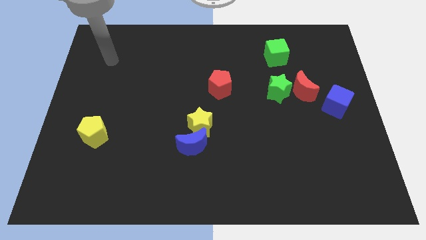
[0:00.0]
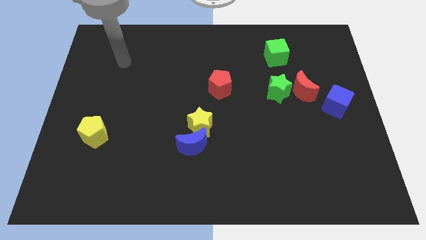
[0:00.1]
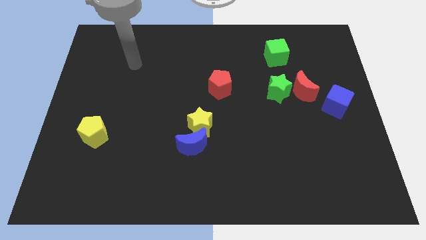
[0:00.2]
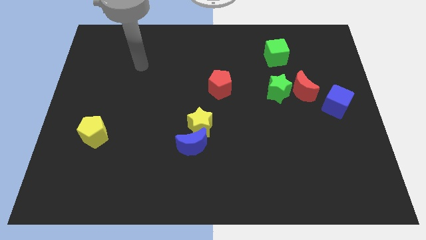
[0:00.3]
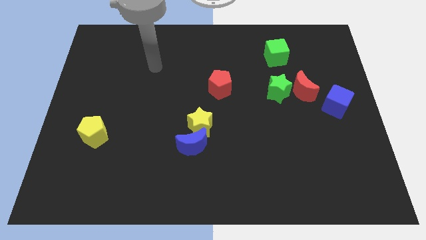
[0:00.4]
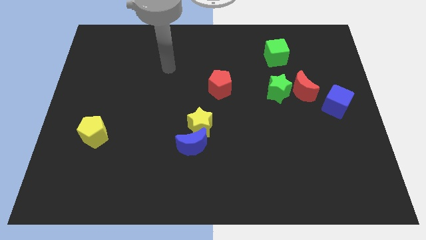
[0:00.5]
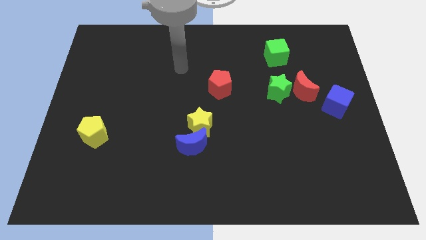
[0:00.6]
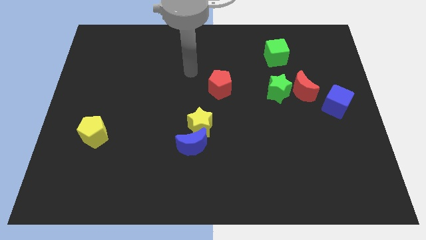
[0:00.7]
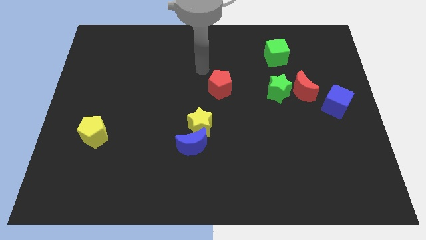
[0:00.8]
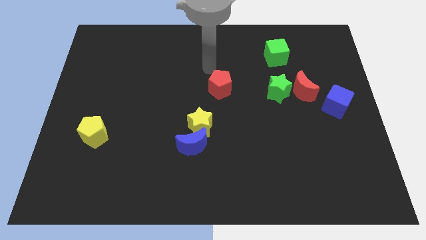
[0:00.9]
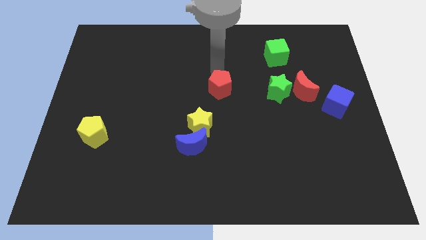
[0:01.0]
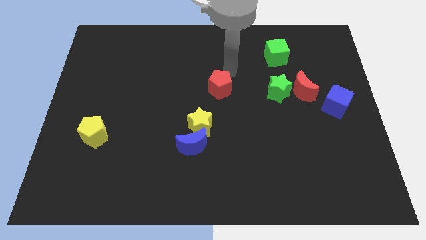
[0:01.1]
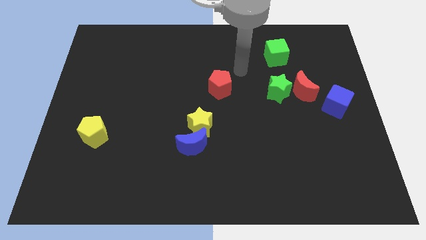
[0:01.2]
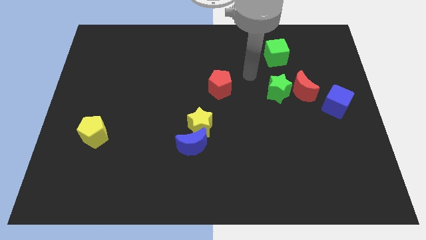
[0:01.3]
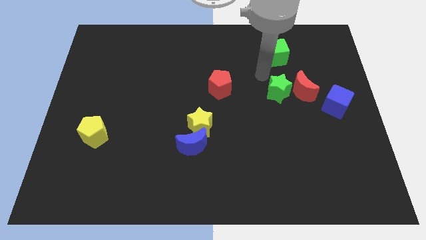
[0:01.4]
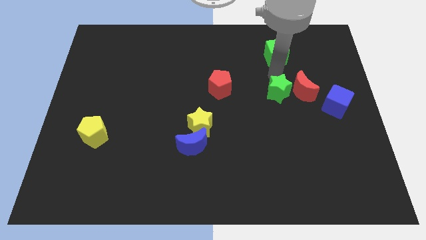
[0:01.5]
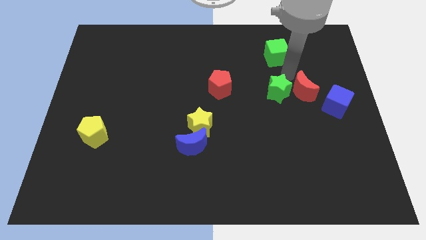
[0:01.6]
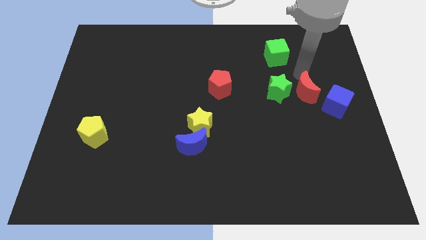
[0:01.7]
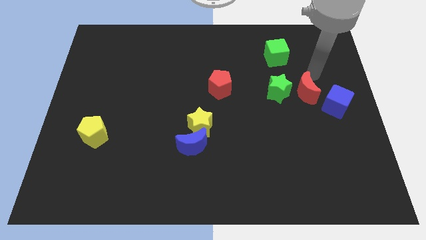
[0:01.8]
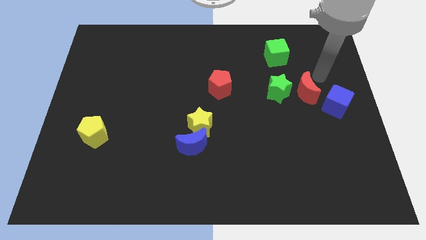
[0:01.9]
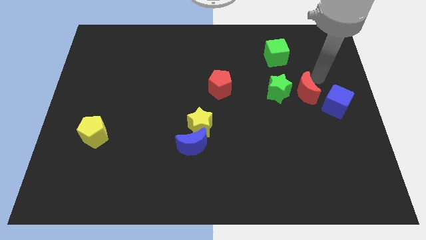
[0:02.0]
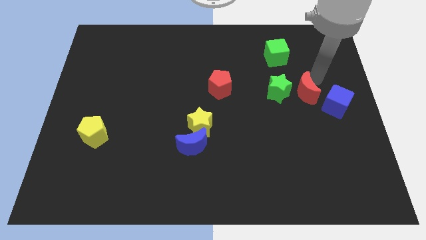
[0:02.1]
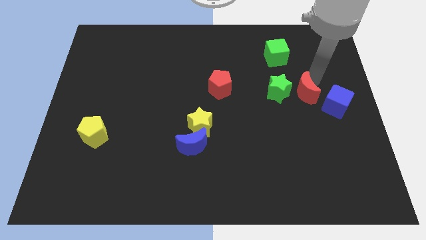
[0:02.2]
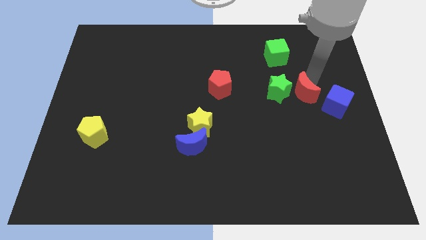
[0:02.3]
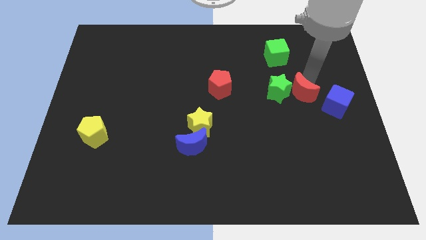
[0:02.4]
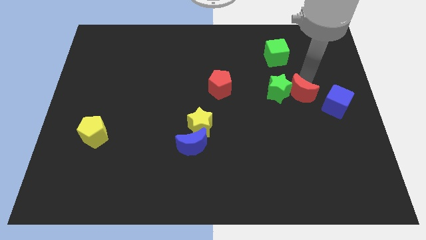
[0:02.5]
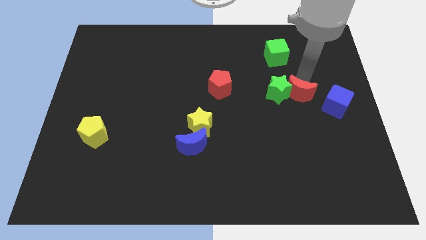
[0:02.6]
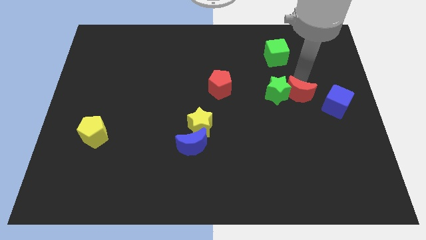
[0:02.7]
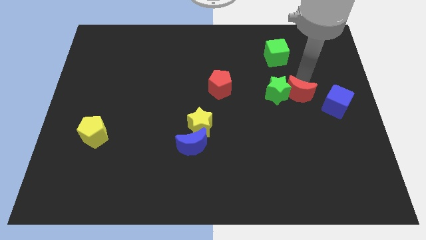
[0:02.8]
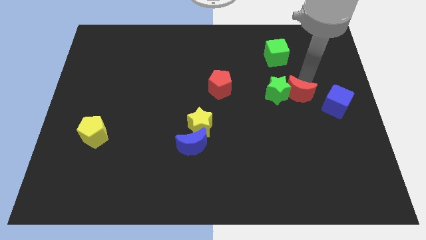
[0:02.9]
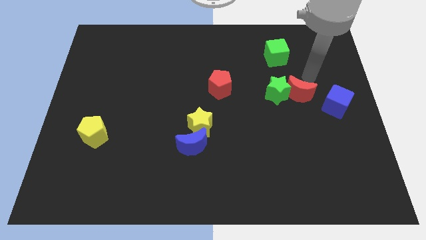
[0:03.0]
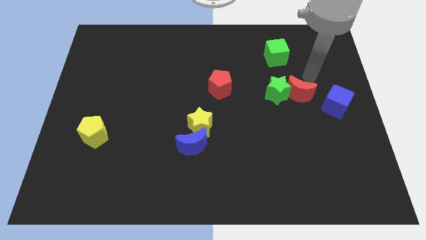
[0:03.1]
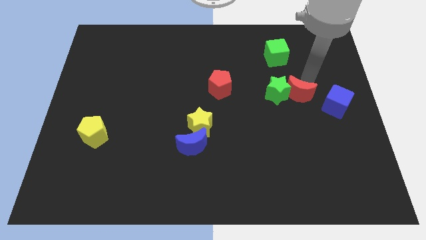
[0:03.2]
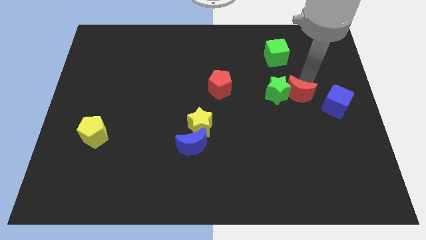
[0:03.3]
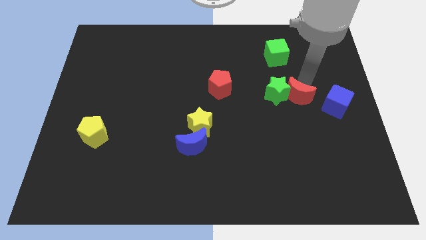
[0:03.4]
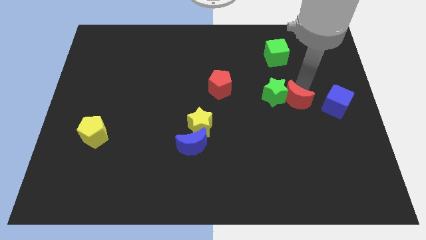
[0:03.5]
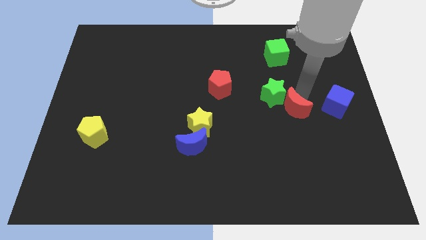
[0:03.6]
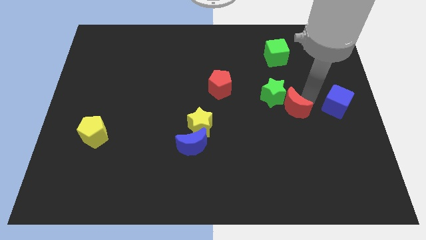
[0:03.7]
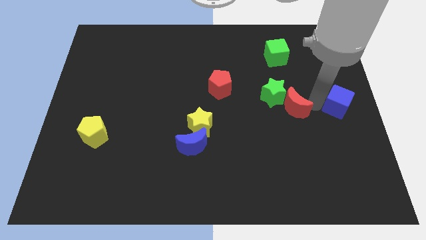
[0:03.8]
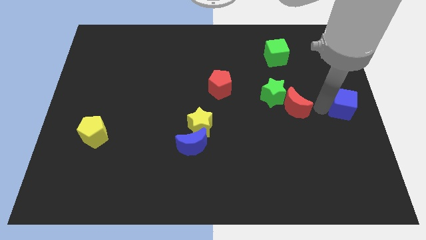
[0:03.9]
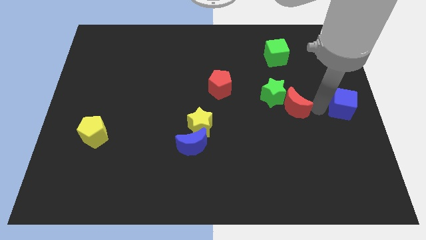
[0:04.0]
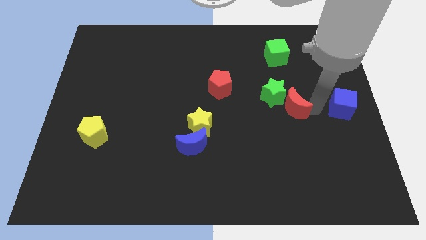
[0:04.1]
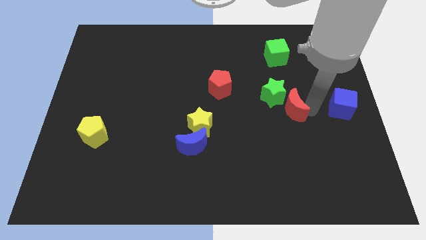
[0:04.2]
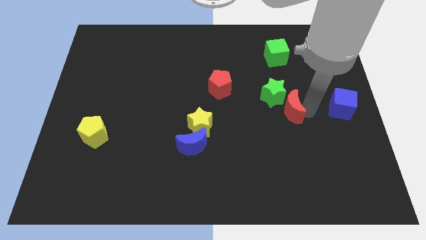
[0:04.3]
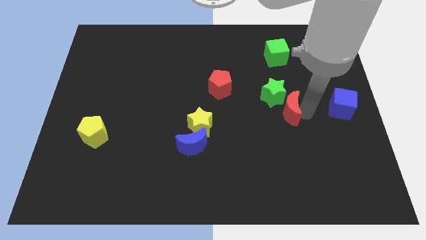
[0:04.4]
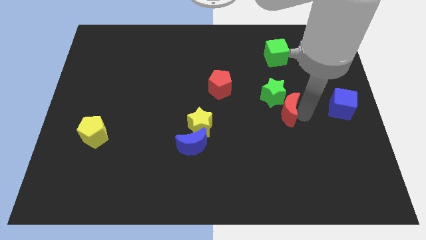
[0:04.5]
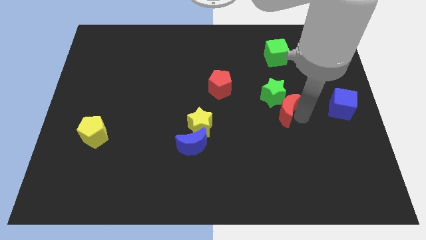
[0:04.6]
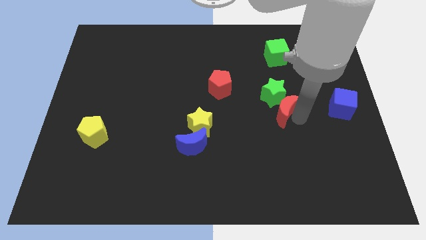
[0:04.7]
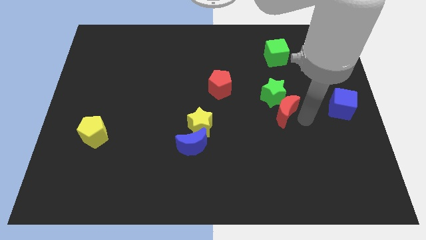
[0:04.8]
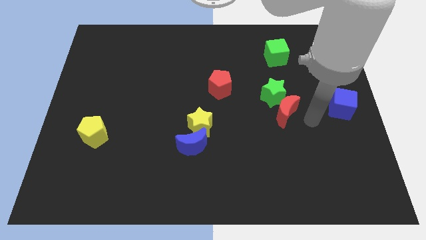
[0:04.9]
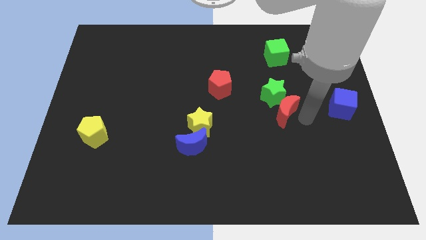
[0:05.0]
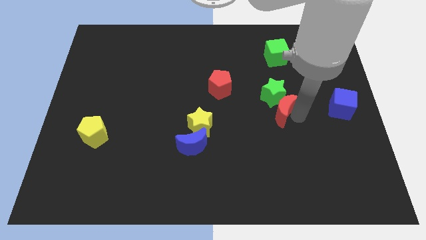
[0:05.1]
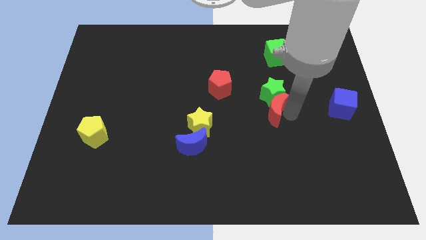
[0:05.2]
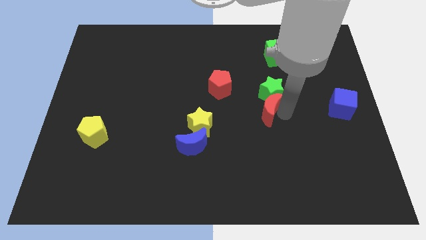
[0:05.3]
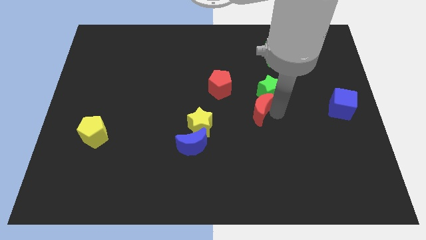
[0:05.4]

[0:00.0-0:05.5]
slide the red moon diagonally down and to the right of the red pentagon

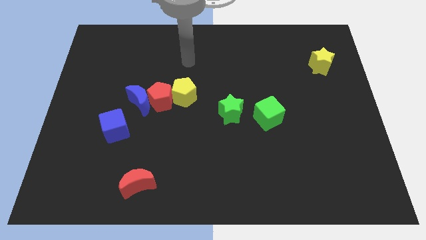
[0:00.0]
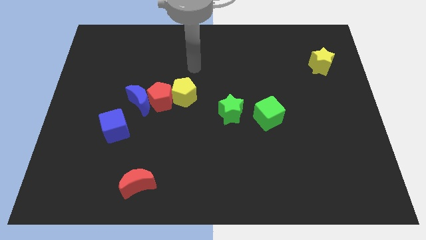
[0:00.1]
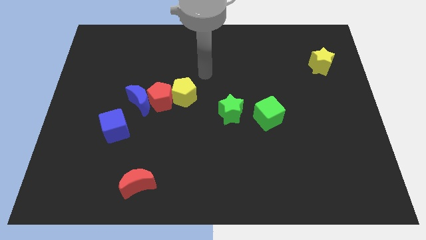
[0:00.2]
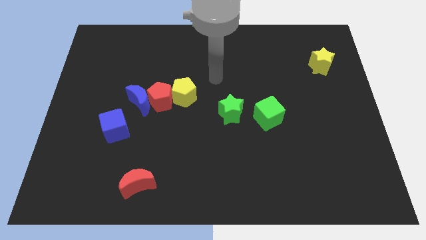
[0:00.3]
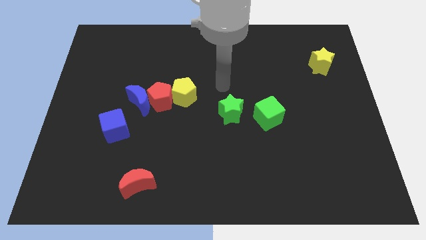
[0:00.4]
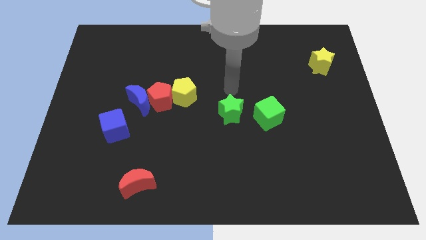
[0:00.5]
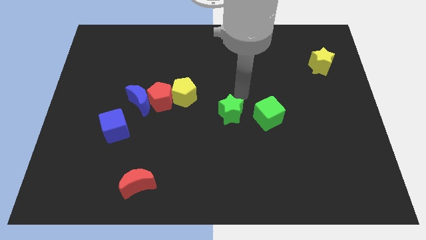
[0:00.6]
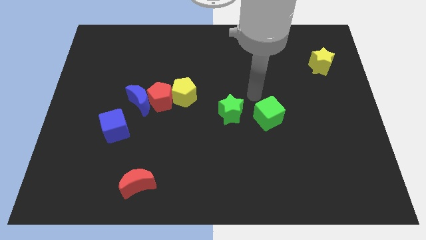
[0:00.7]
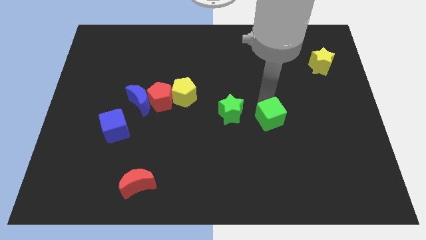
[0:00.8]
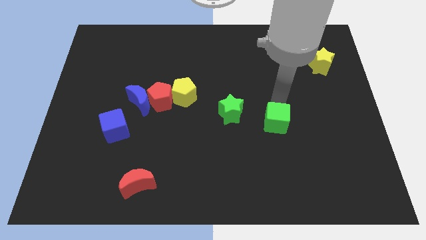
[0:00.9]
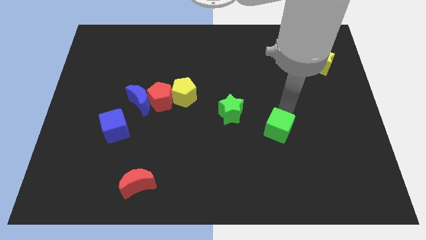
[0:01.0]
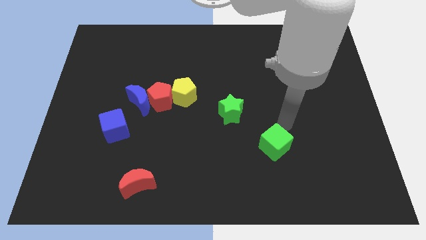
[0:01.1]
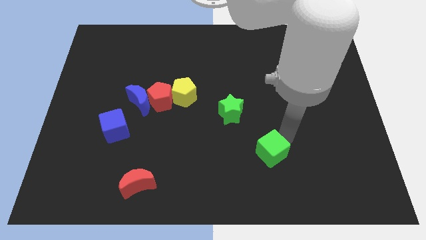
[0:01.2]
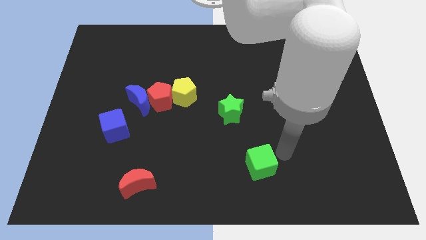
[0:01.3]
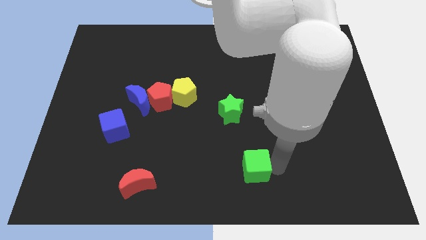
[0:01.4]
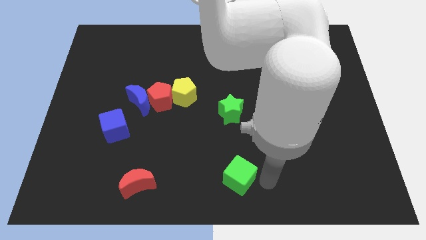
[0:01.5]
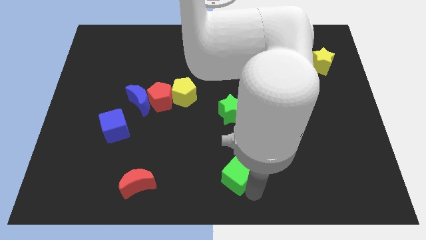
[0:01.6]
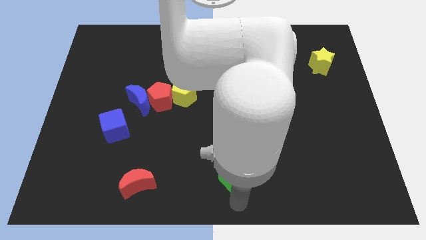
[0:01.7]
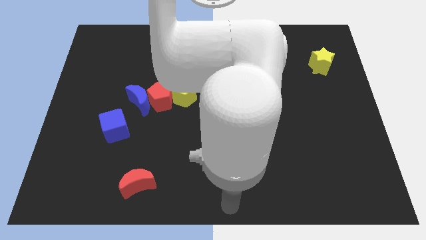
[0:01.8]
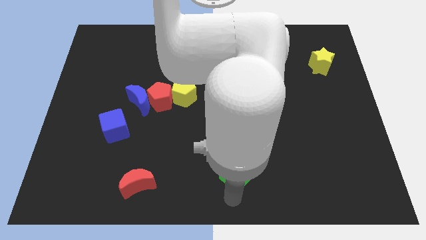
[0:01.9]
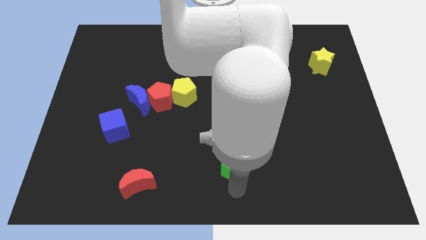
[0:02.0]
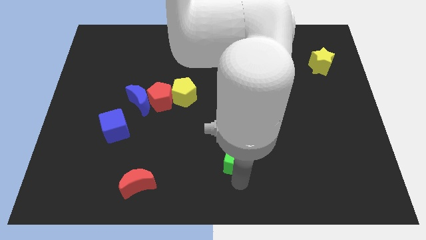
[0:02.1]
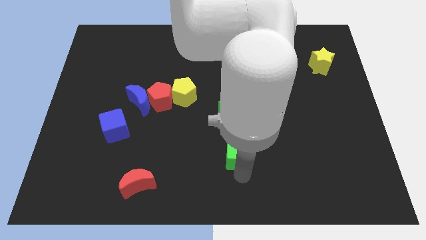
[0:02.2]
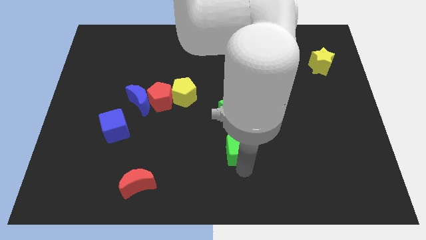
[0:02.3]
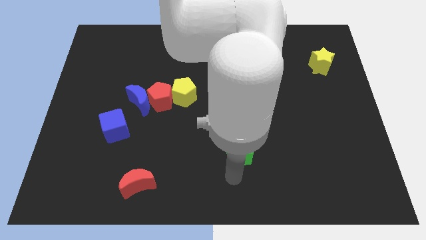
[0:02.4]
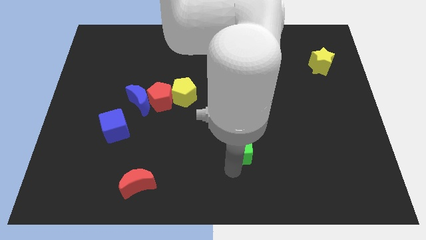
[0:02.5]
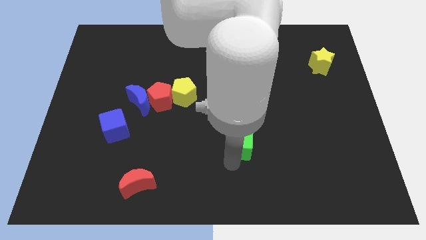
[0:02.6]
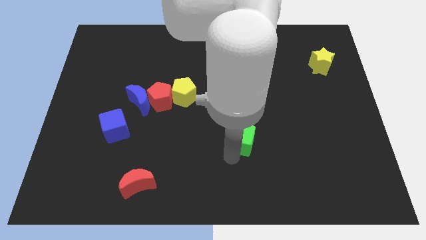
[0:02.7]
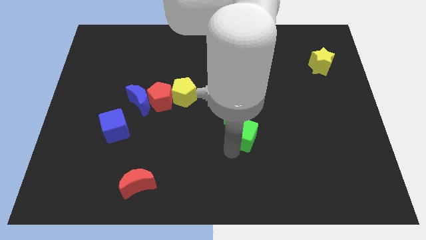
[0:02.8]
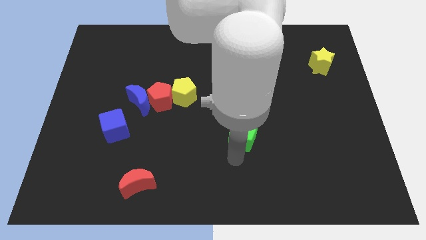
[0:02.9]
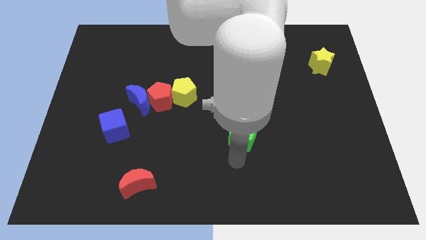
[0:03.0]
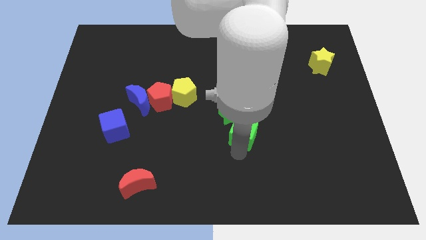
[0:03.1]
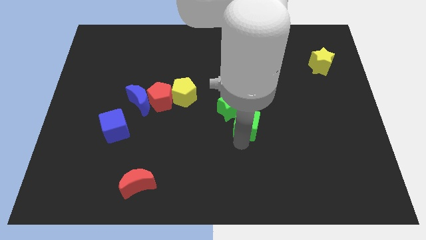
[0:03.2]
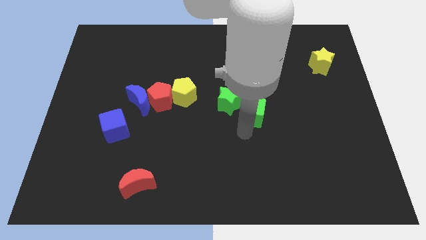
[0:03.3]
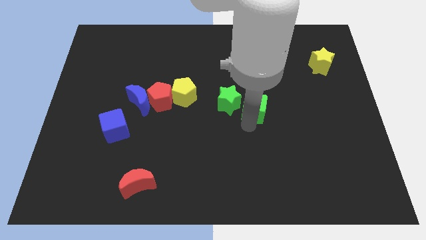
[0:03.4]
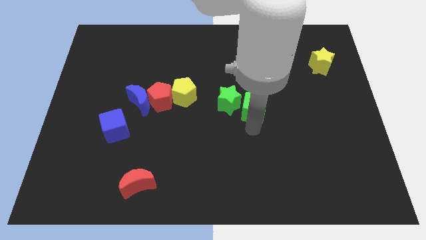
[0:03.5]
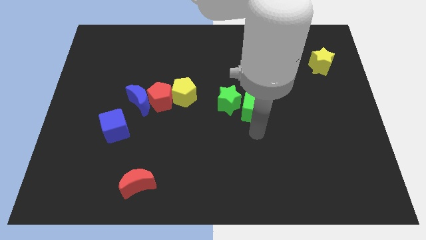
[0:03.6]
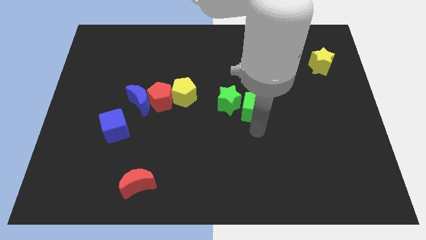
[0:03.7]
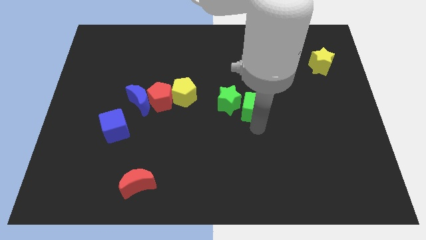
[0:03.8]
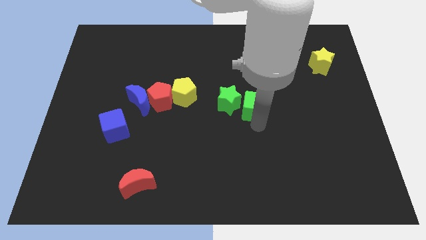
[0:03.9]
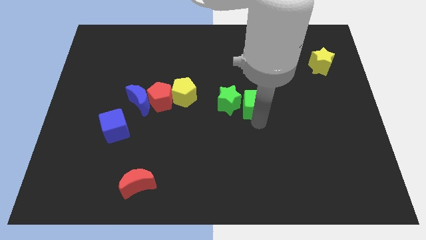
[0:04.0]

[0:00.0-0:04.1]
push the green cube to the top right of the green star
